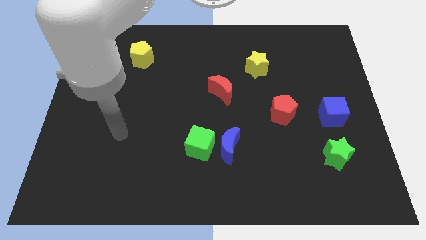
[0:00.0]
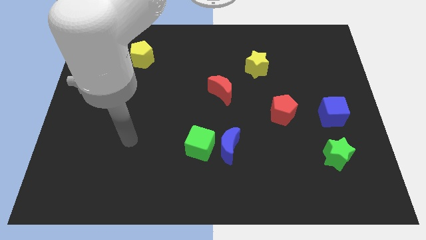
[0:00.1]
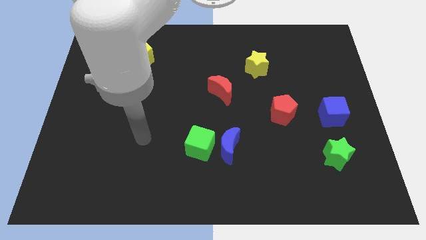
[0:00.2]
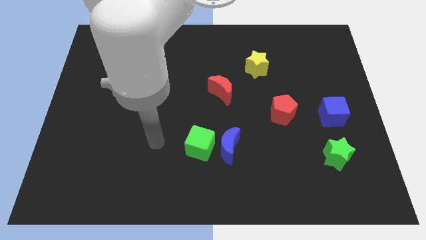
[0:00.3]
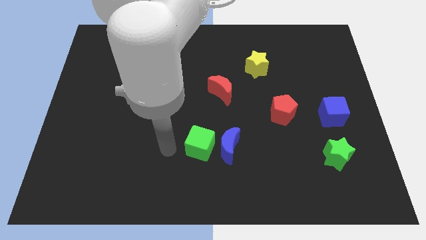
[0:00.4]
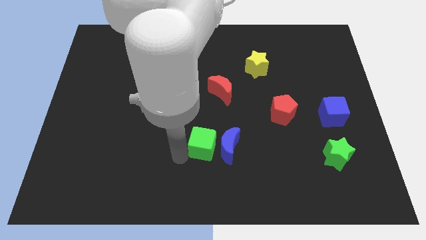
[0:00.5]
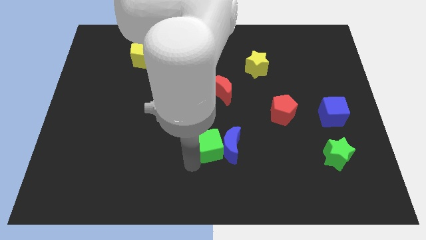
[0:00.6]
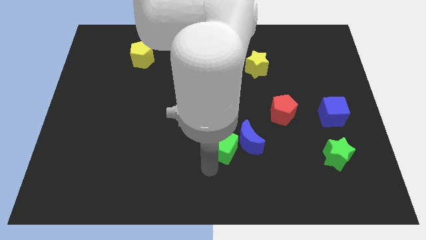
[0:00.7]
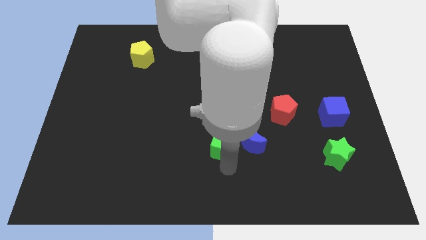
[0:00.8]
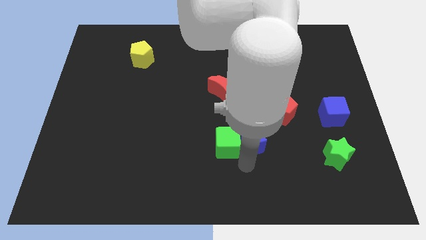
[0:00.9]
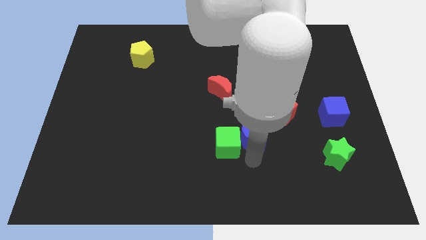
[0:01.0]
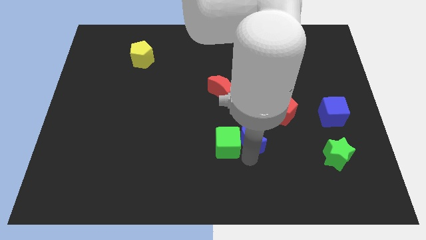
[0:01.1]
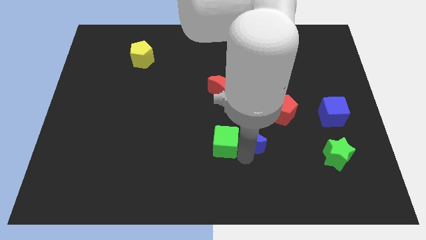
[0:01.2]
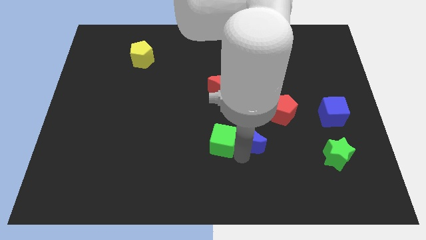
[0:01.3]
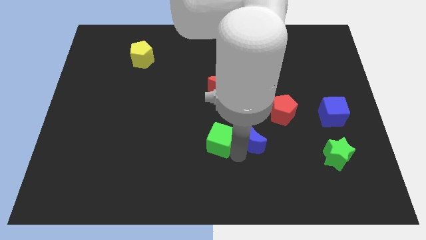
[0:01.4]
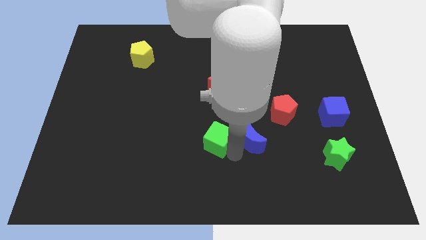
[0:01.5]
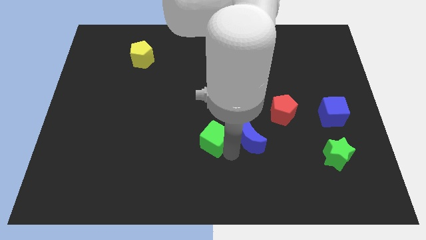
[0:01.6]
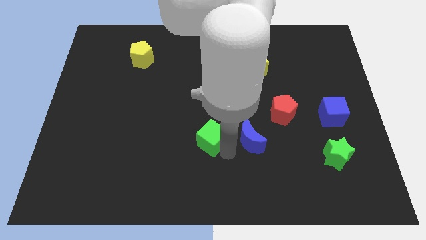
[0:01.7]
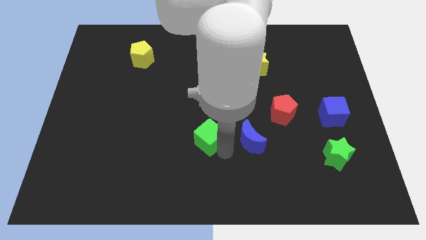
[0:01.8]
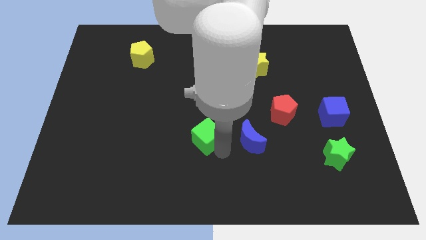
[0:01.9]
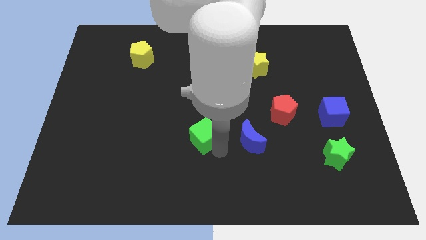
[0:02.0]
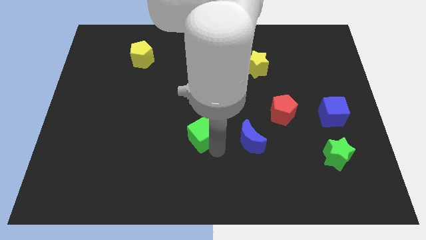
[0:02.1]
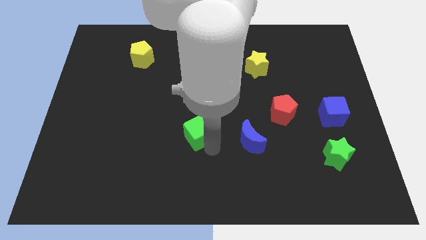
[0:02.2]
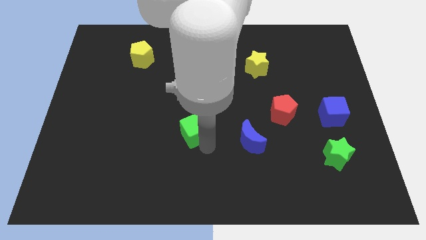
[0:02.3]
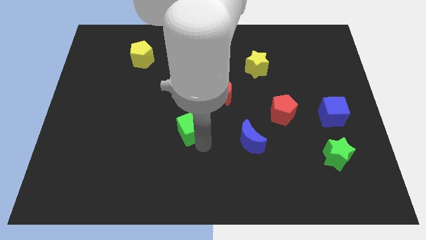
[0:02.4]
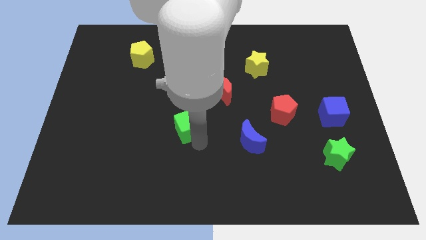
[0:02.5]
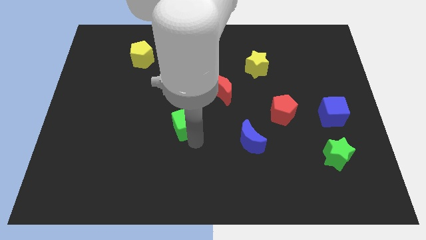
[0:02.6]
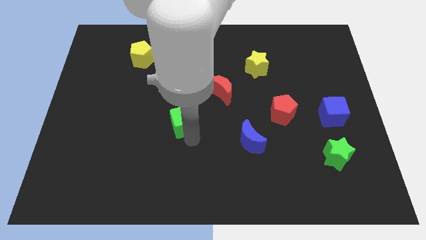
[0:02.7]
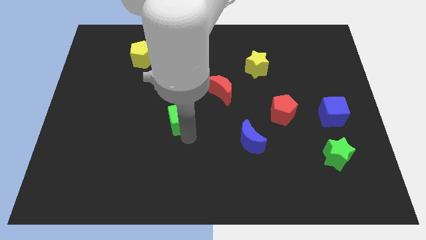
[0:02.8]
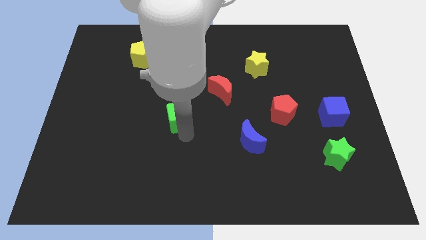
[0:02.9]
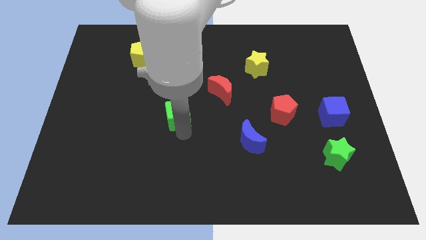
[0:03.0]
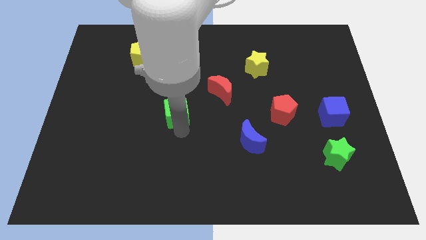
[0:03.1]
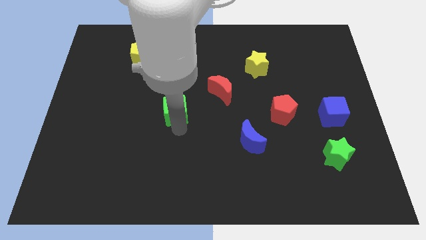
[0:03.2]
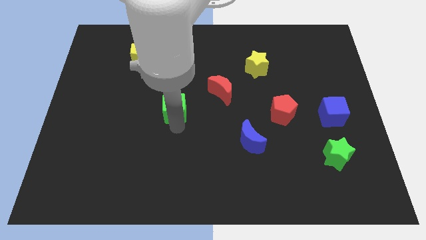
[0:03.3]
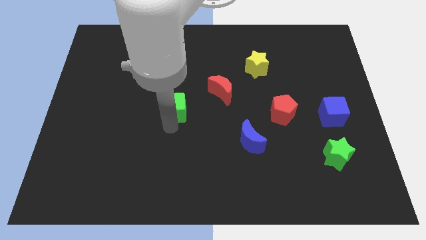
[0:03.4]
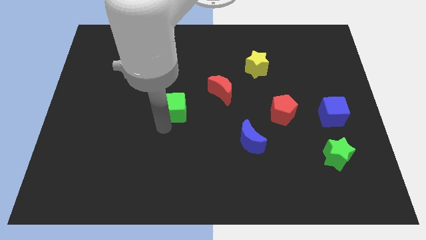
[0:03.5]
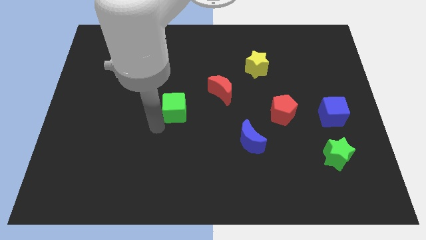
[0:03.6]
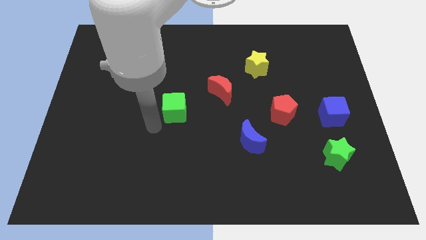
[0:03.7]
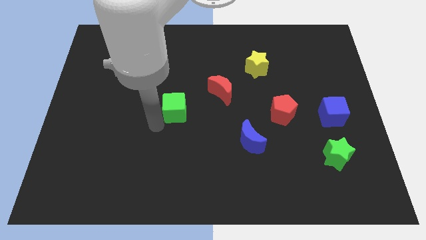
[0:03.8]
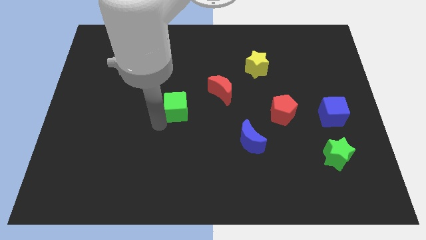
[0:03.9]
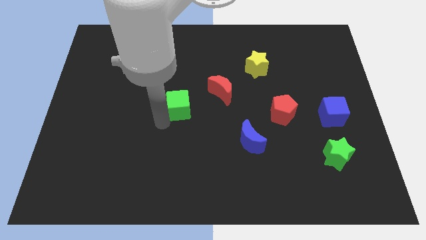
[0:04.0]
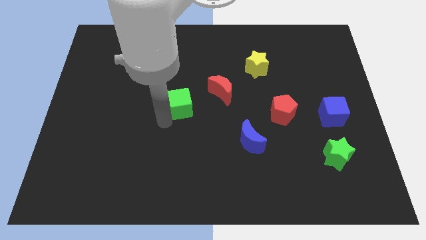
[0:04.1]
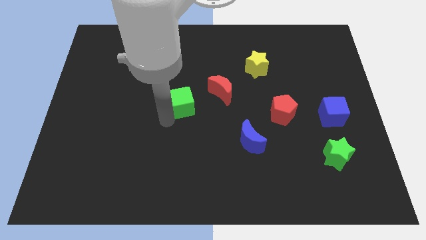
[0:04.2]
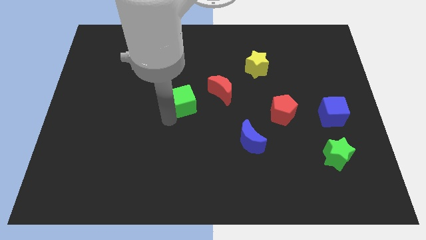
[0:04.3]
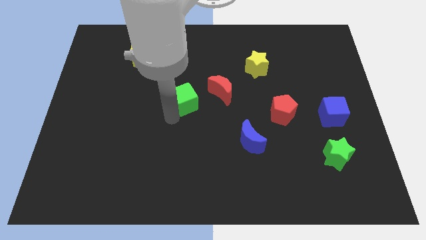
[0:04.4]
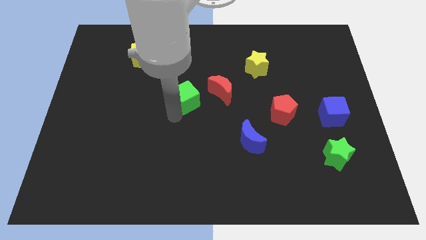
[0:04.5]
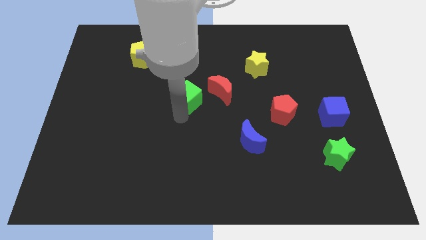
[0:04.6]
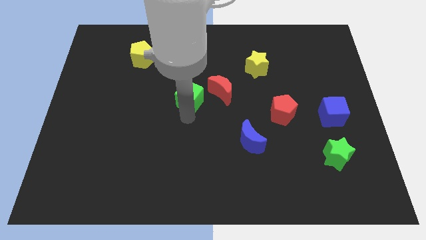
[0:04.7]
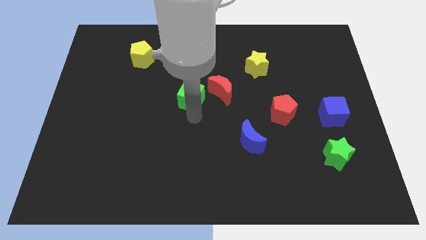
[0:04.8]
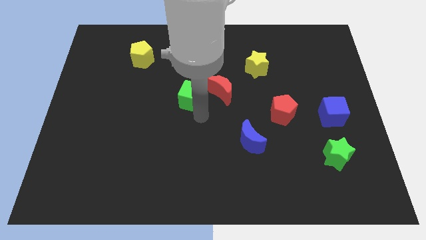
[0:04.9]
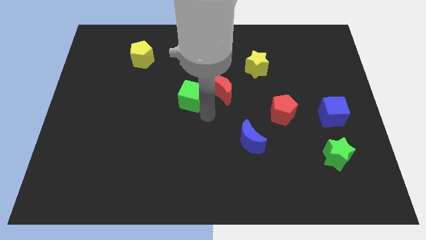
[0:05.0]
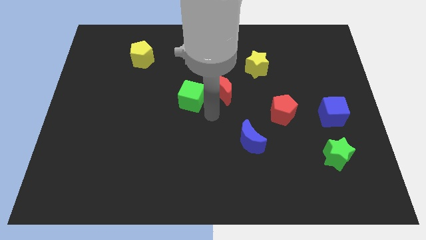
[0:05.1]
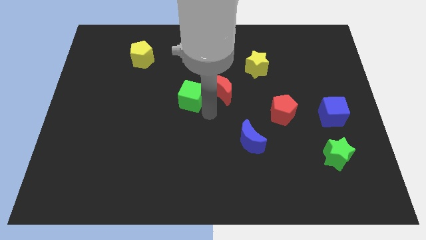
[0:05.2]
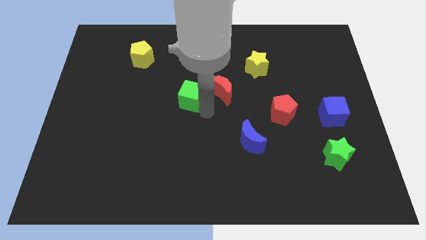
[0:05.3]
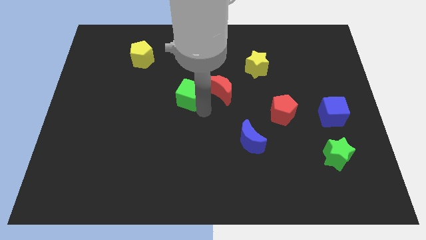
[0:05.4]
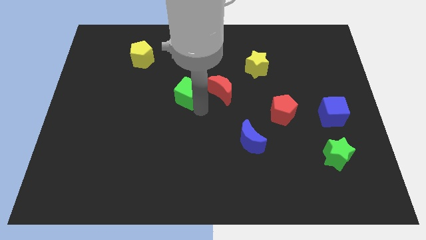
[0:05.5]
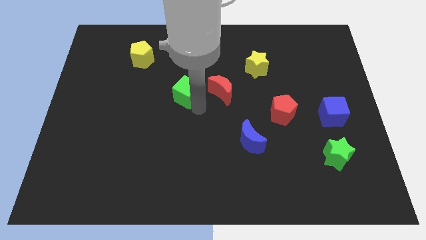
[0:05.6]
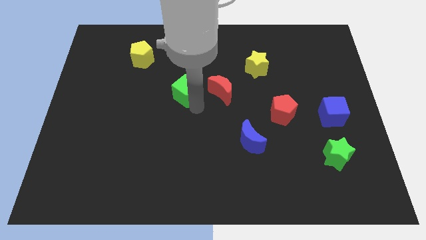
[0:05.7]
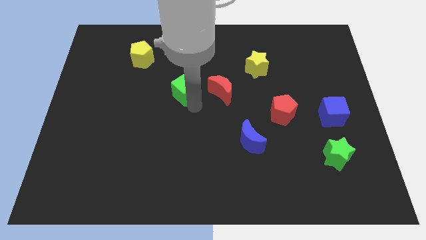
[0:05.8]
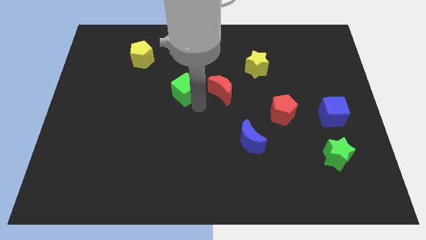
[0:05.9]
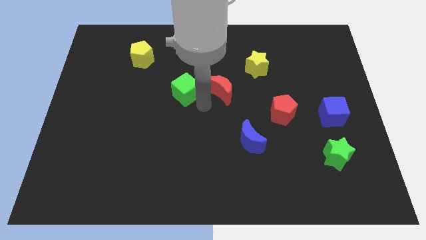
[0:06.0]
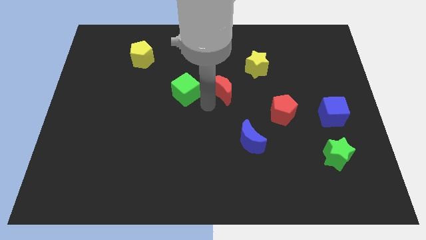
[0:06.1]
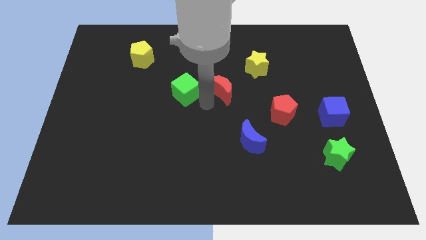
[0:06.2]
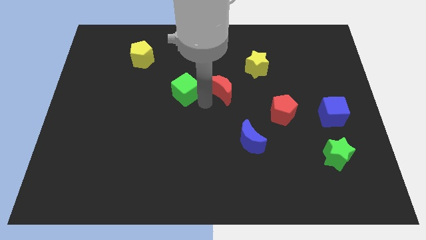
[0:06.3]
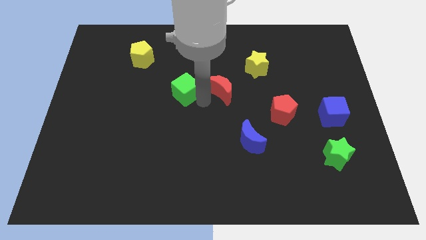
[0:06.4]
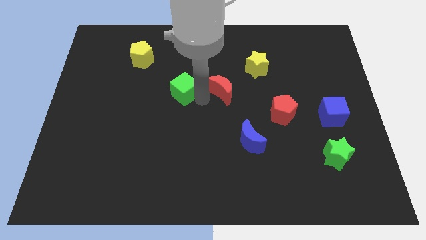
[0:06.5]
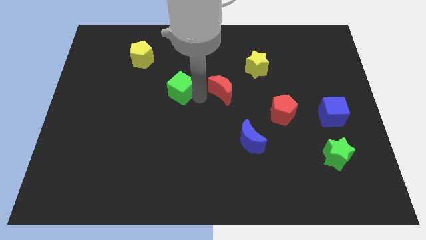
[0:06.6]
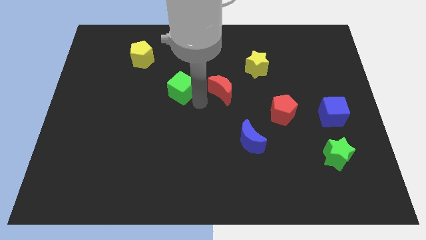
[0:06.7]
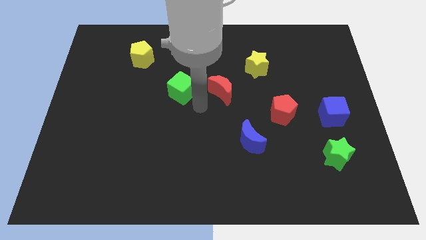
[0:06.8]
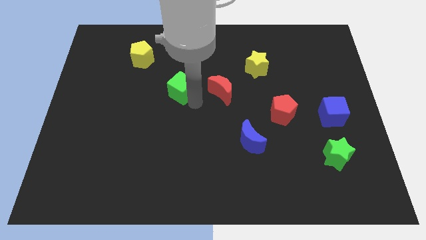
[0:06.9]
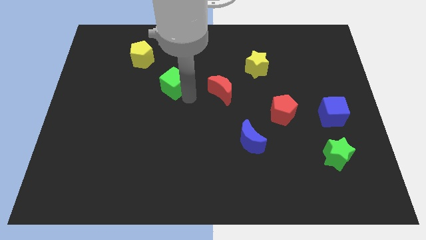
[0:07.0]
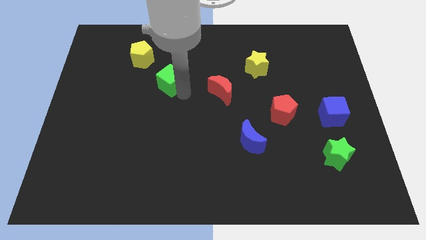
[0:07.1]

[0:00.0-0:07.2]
move the green cube diagonally down and to the right of the yellow pentagon
